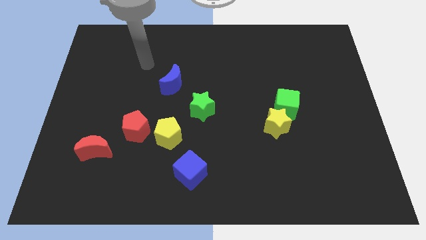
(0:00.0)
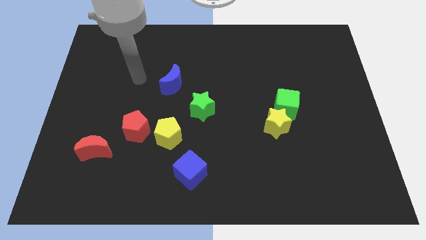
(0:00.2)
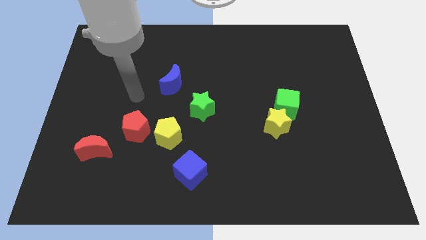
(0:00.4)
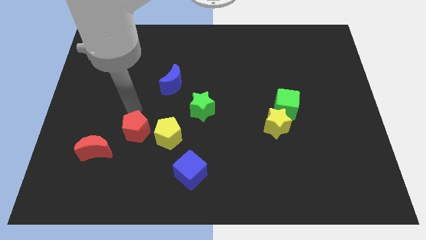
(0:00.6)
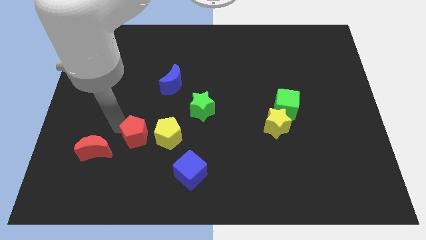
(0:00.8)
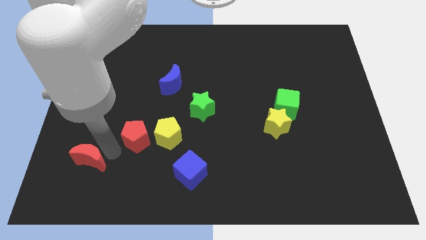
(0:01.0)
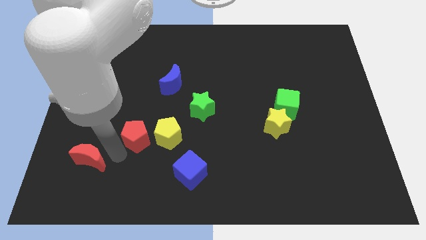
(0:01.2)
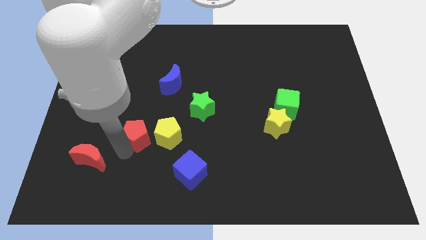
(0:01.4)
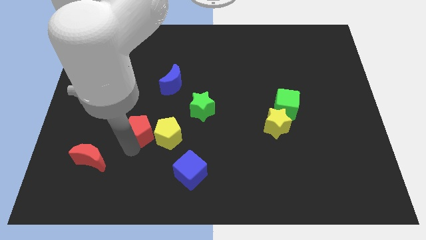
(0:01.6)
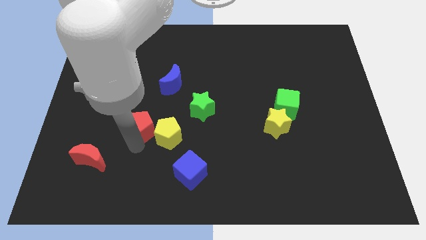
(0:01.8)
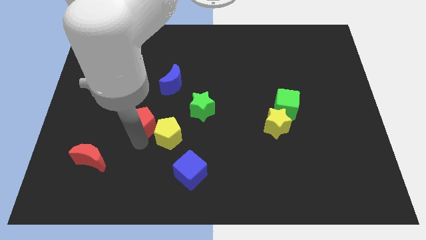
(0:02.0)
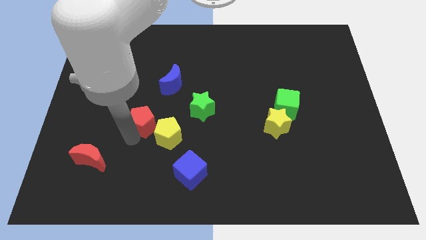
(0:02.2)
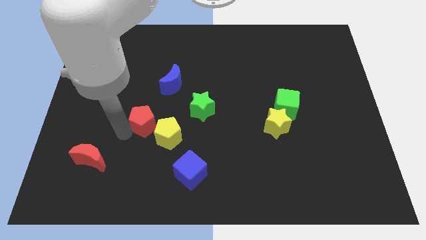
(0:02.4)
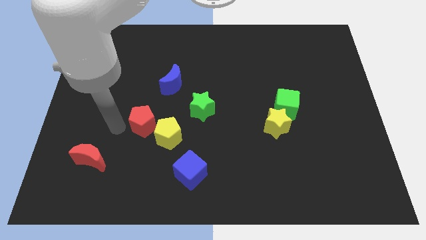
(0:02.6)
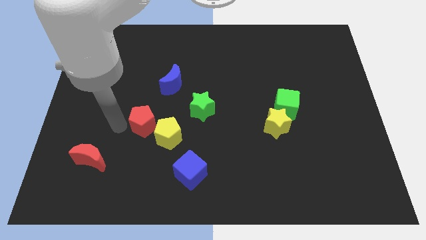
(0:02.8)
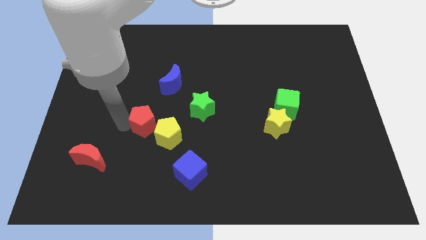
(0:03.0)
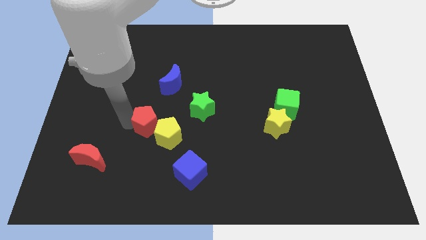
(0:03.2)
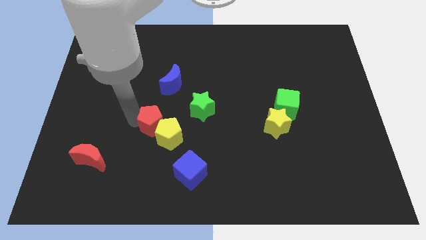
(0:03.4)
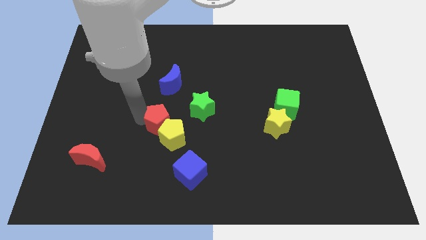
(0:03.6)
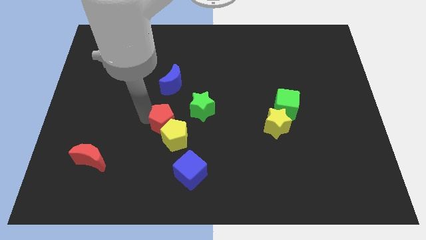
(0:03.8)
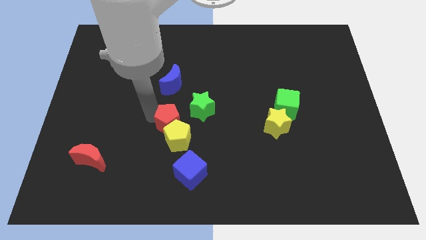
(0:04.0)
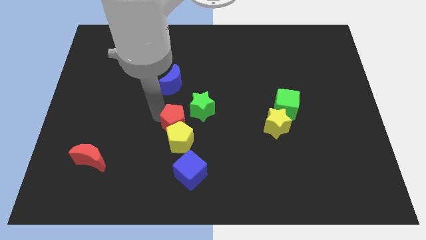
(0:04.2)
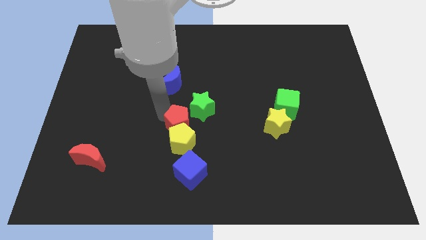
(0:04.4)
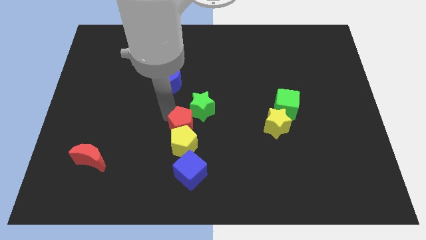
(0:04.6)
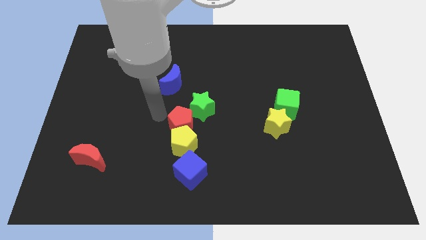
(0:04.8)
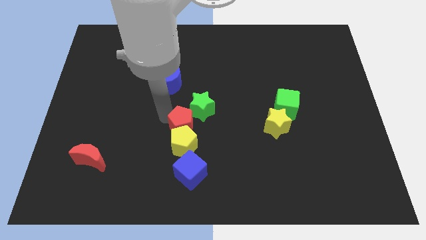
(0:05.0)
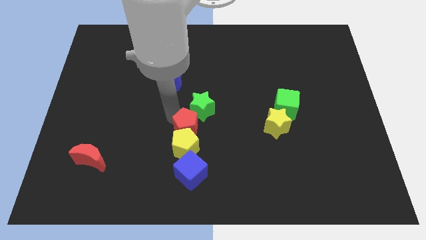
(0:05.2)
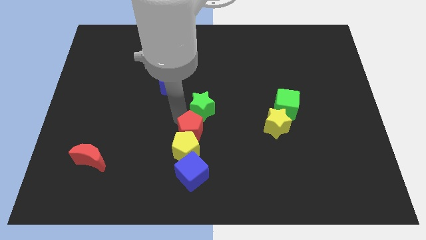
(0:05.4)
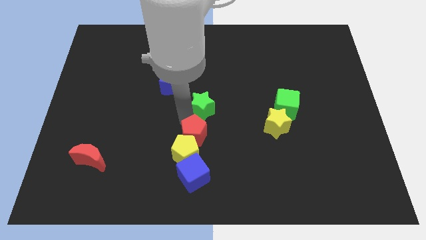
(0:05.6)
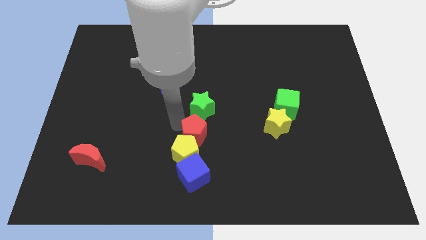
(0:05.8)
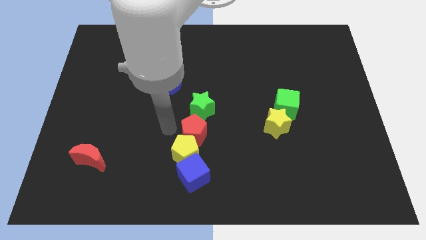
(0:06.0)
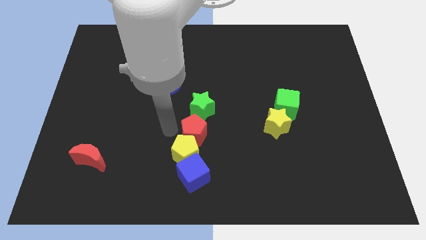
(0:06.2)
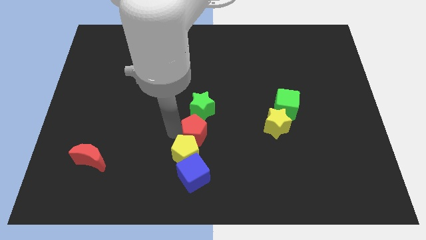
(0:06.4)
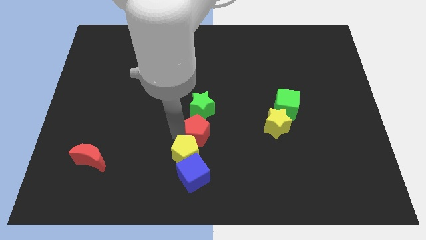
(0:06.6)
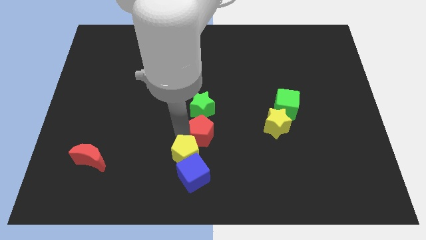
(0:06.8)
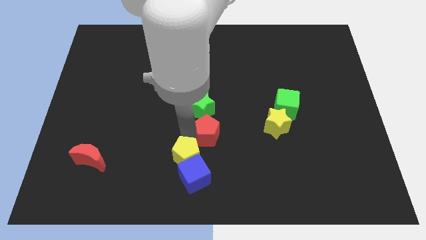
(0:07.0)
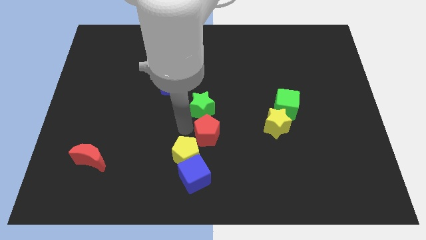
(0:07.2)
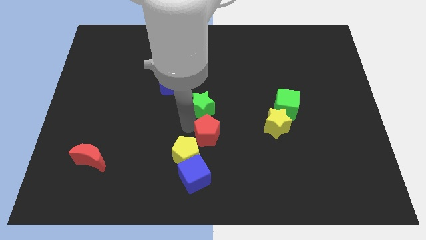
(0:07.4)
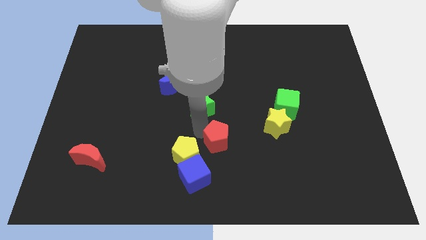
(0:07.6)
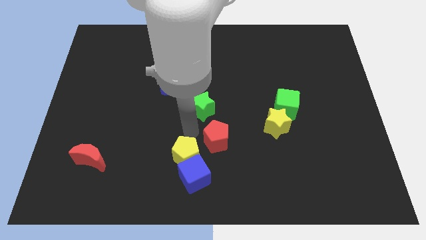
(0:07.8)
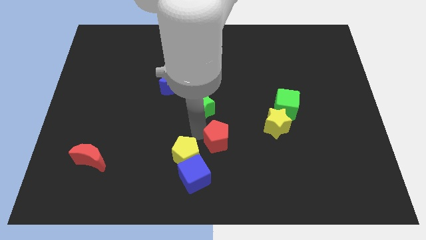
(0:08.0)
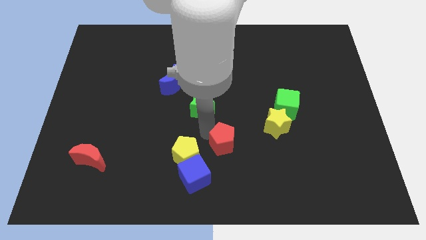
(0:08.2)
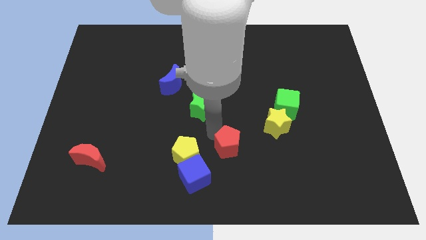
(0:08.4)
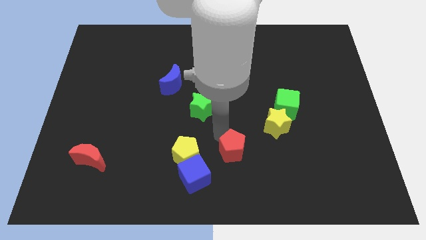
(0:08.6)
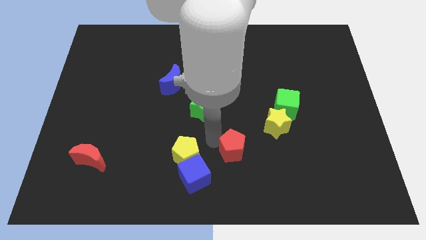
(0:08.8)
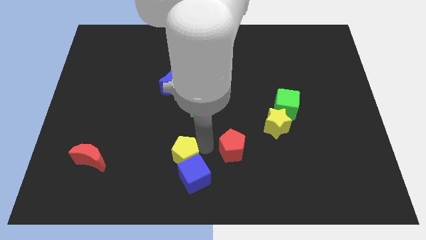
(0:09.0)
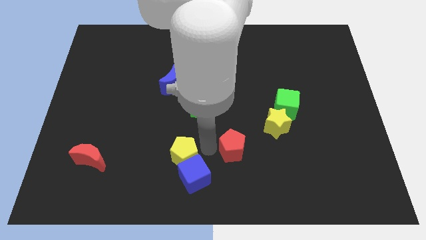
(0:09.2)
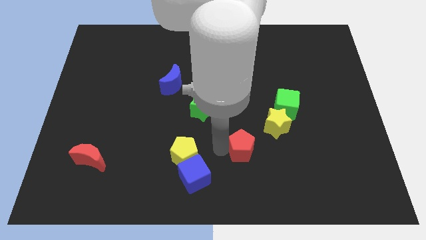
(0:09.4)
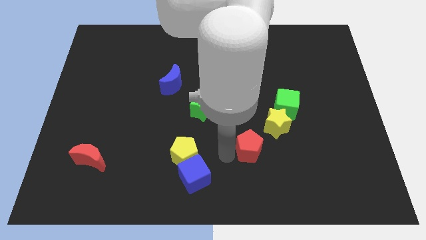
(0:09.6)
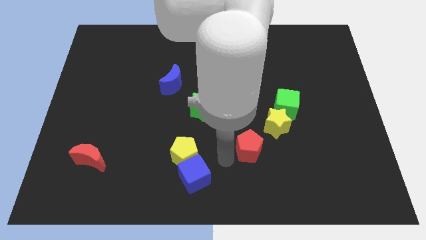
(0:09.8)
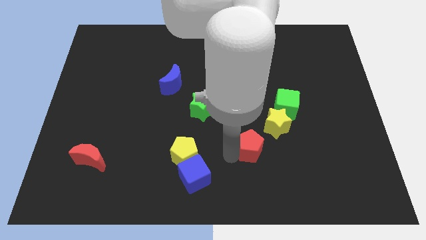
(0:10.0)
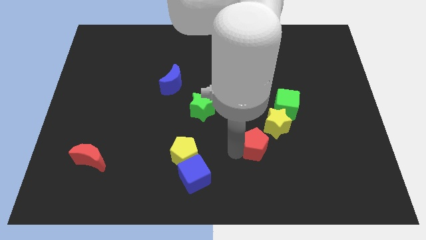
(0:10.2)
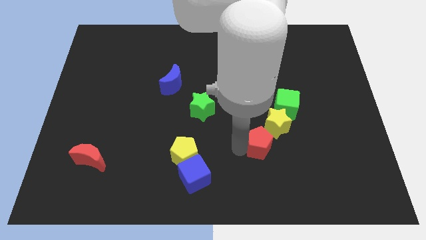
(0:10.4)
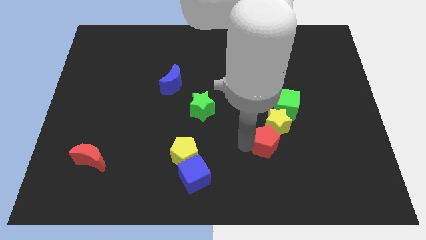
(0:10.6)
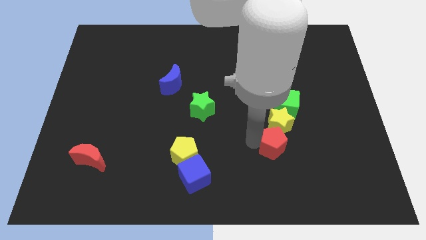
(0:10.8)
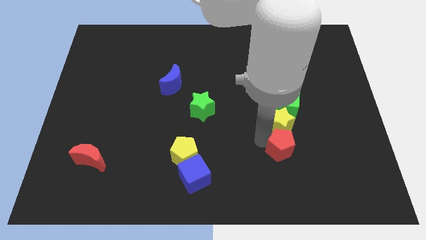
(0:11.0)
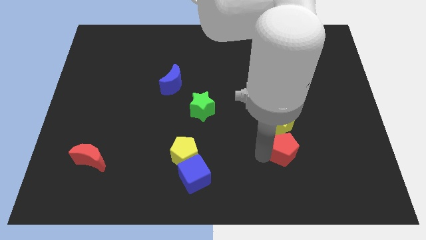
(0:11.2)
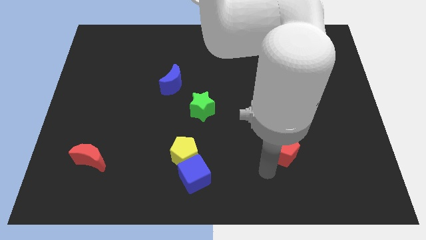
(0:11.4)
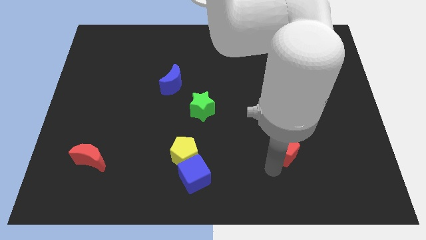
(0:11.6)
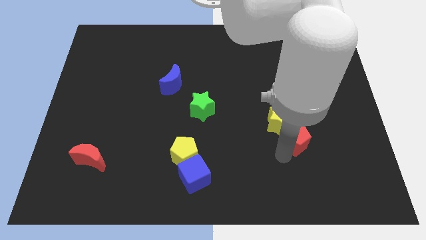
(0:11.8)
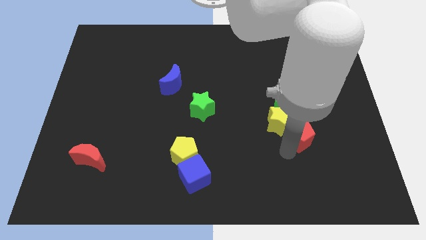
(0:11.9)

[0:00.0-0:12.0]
push the red pentagon just right of the yellow star
